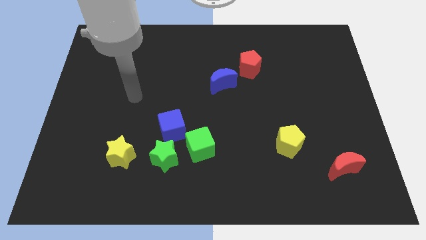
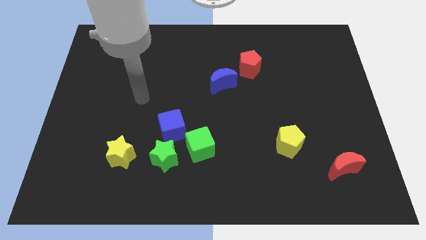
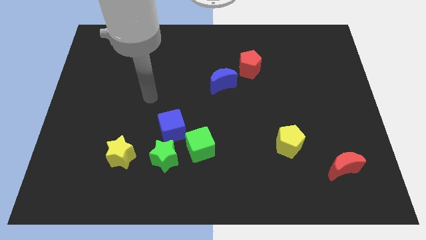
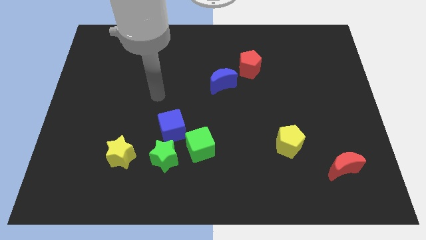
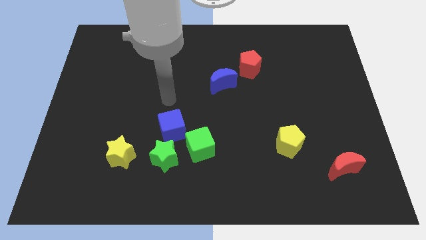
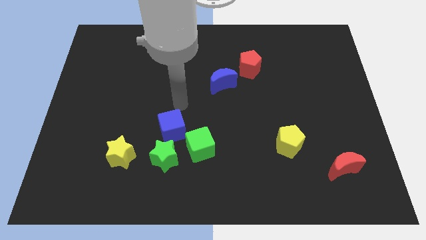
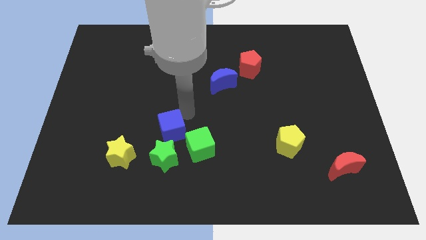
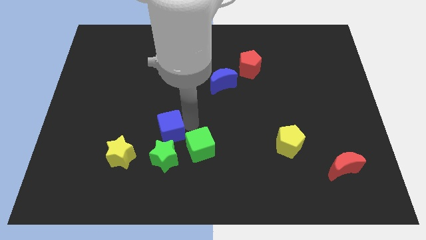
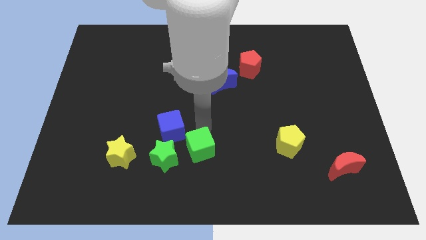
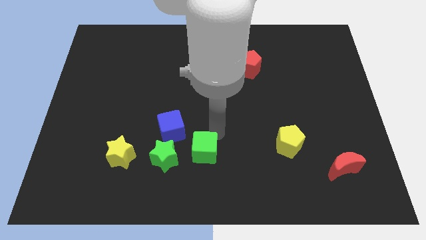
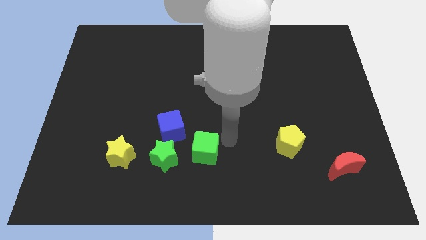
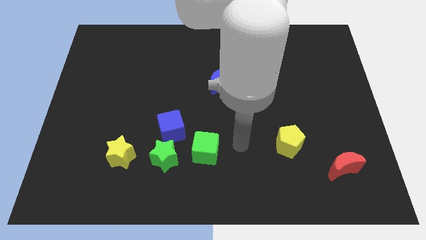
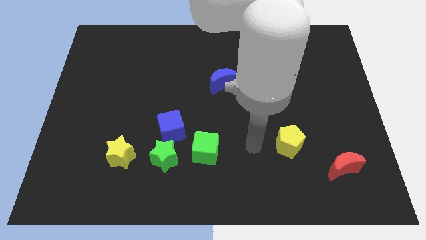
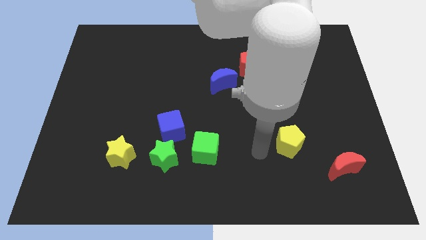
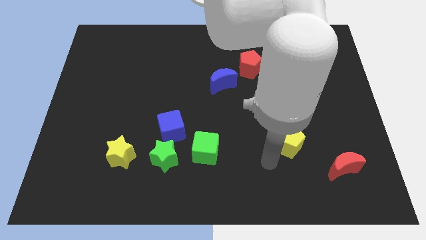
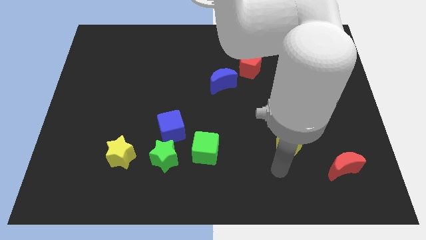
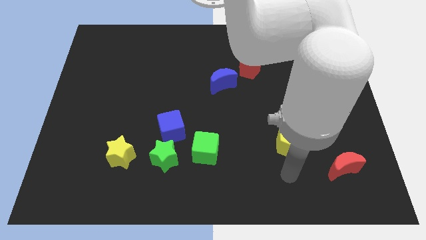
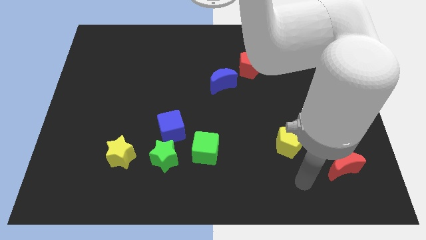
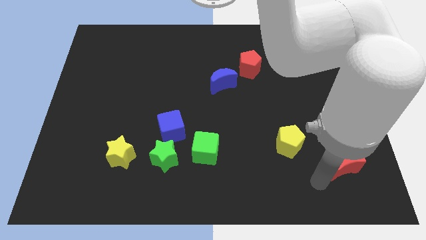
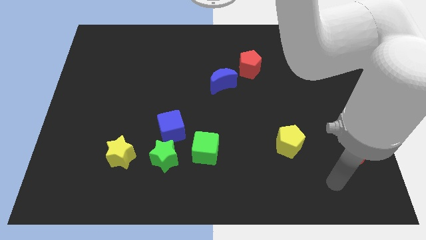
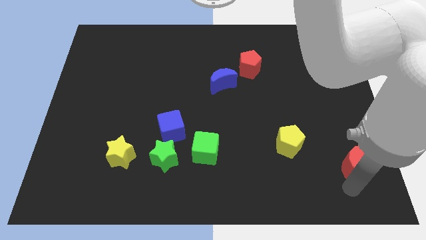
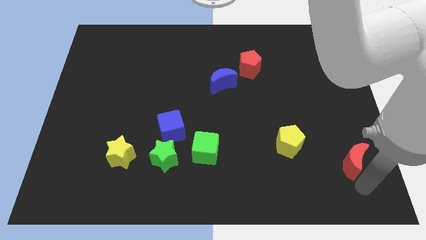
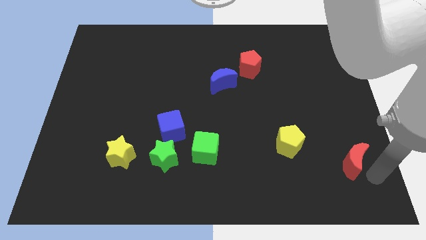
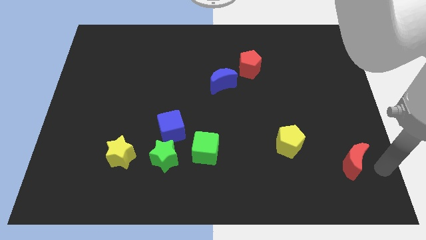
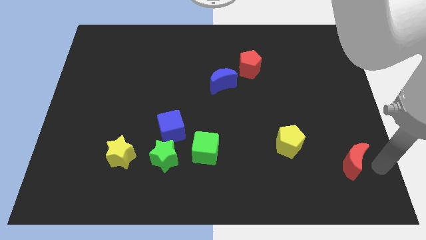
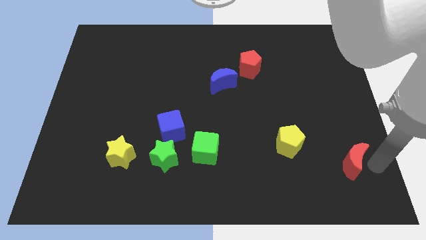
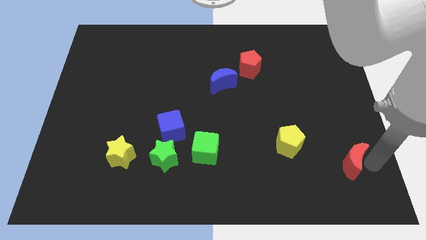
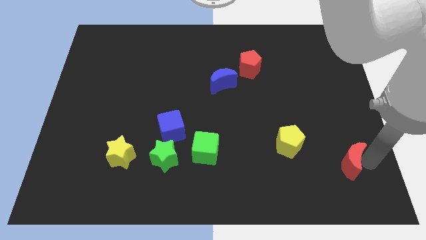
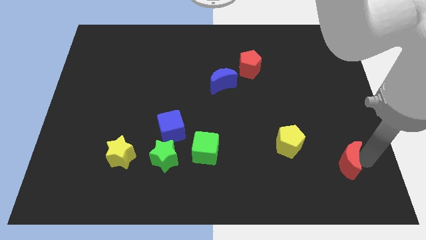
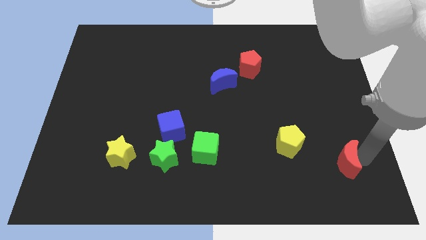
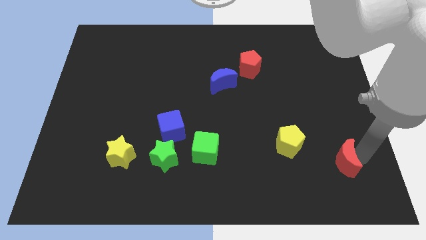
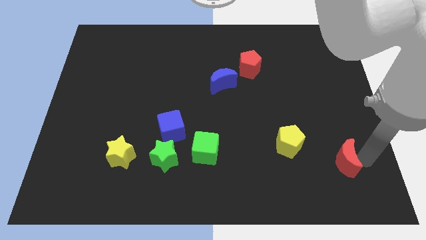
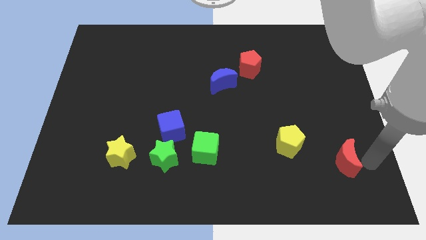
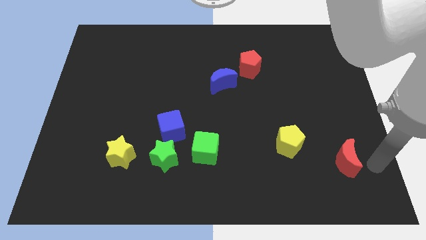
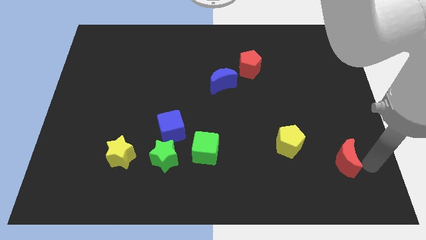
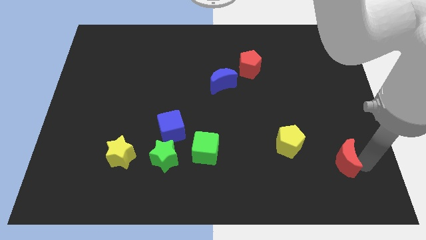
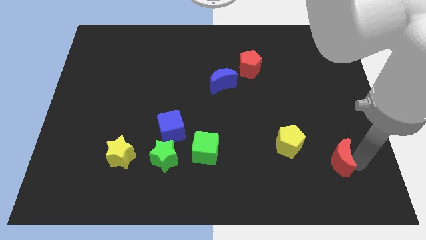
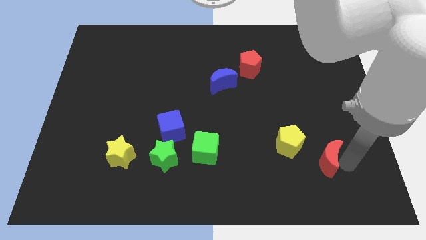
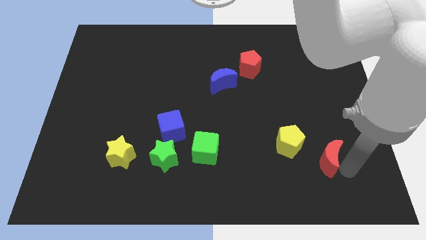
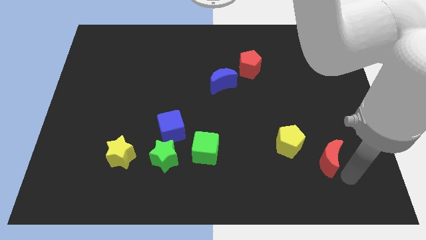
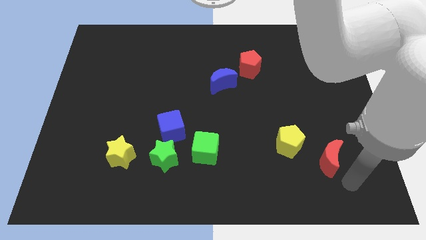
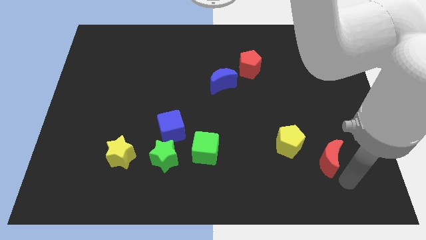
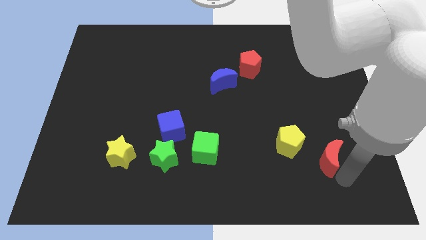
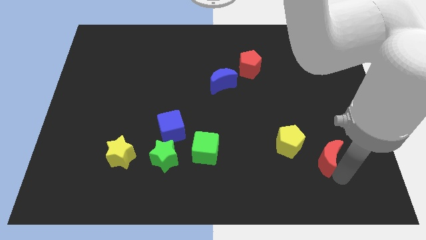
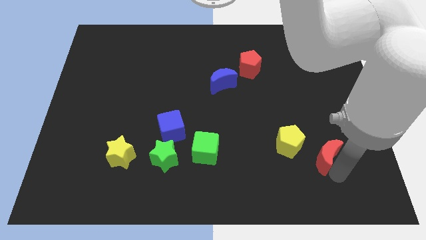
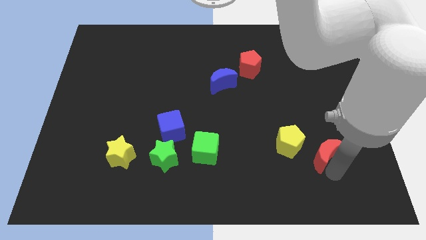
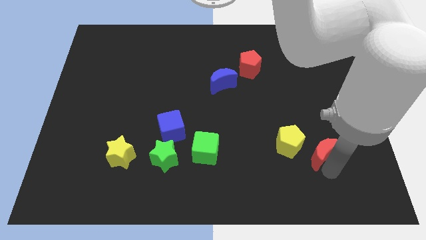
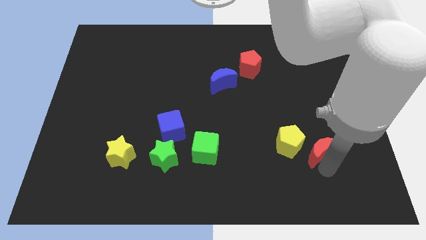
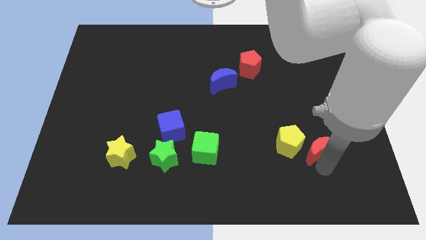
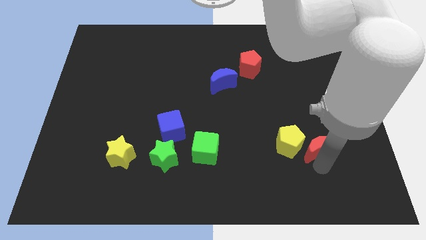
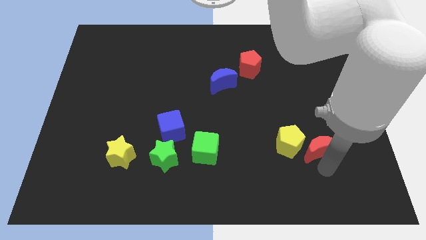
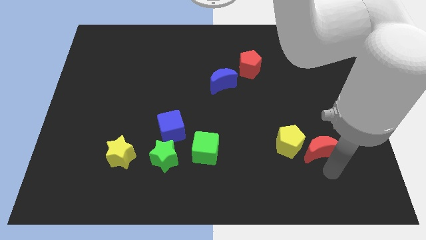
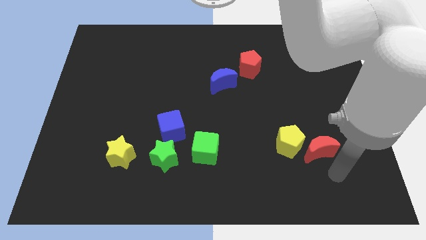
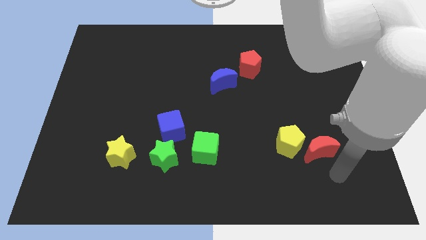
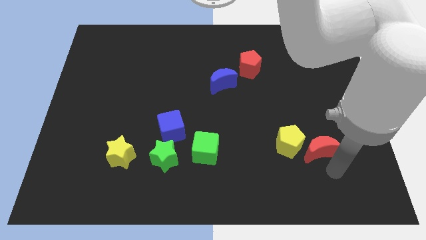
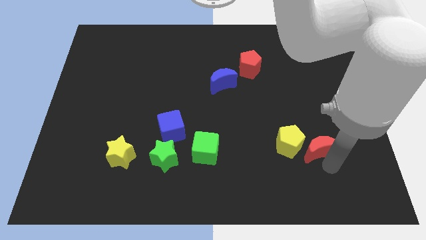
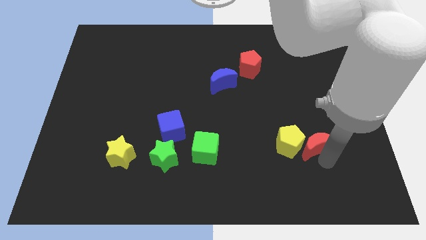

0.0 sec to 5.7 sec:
push the red moon a bit up and then left

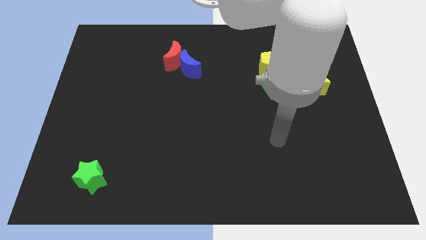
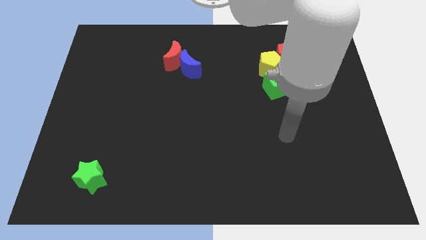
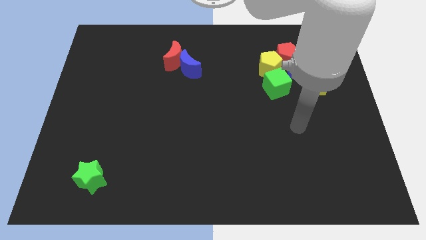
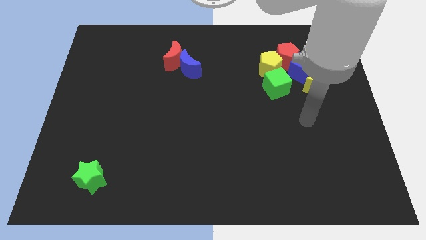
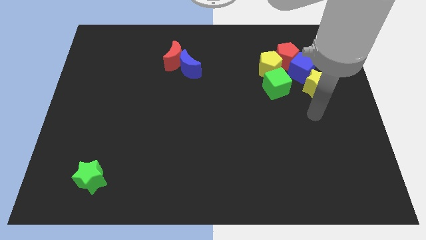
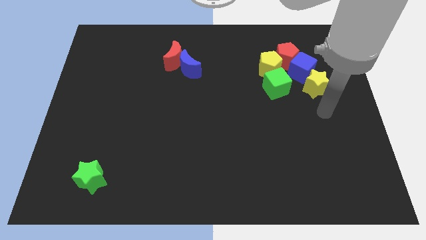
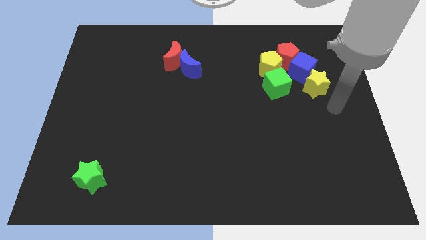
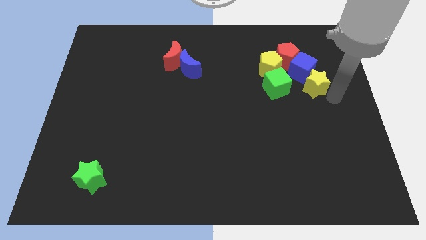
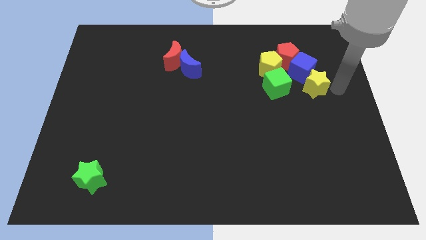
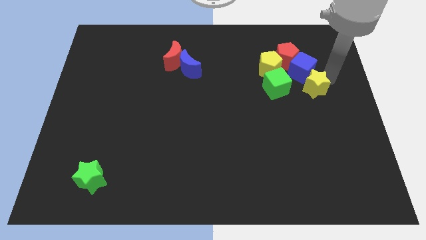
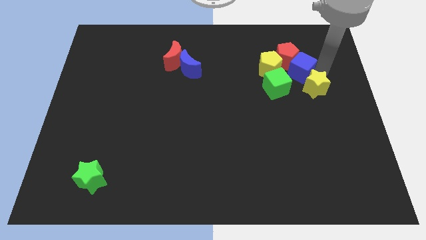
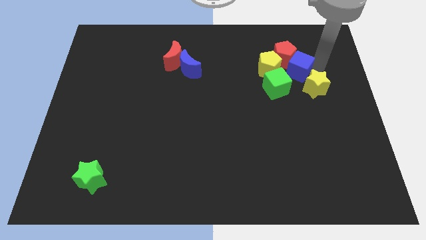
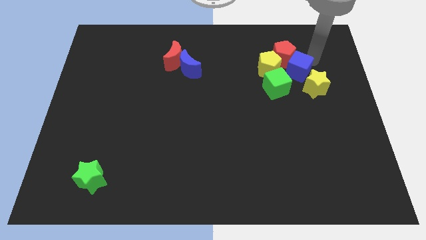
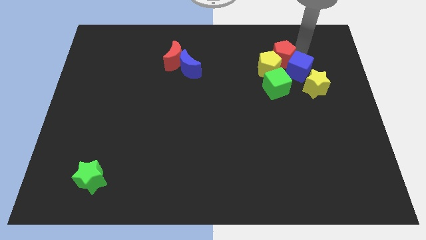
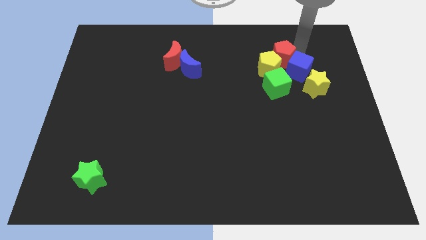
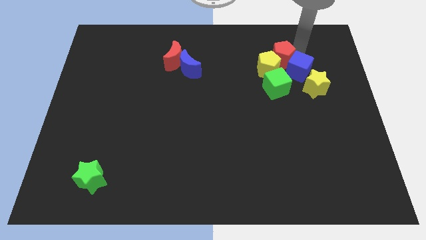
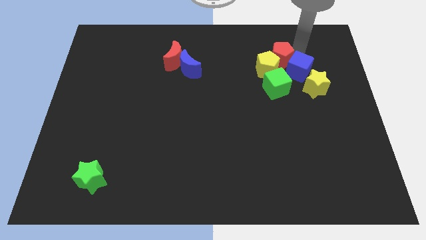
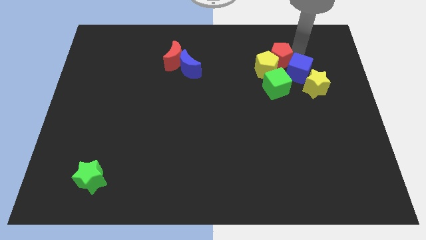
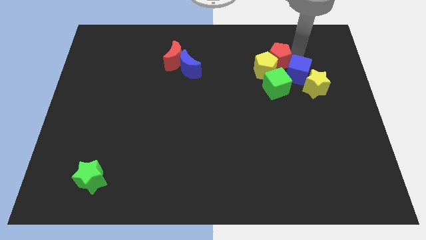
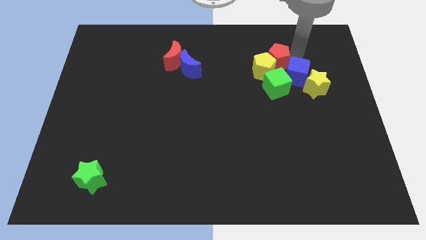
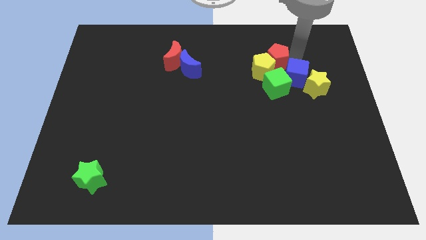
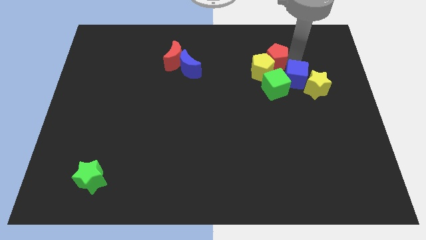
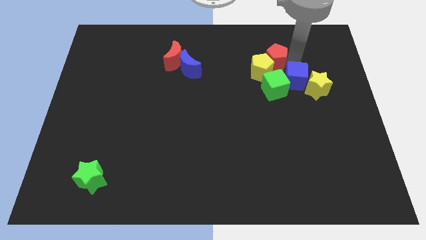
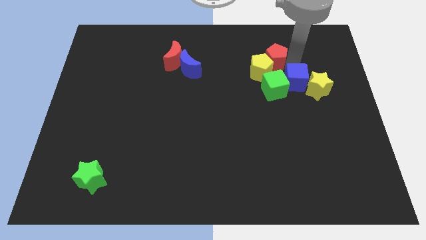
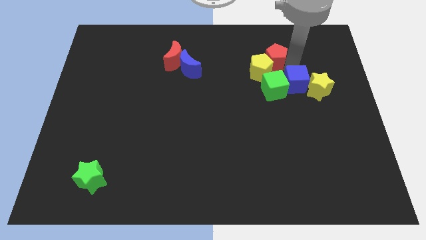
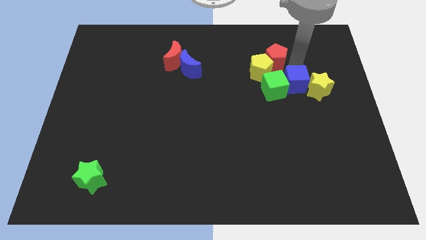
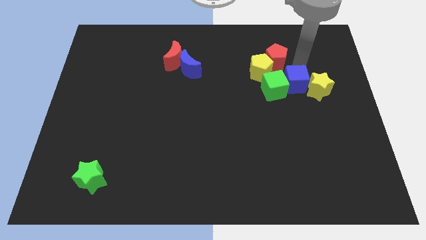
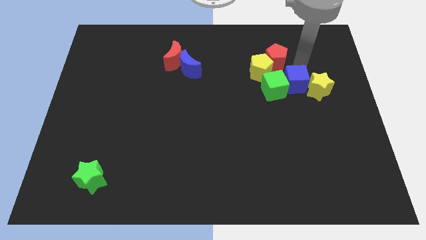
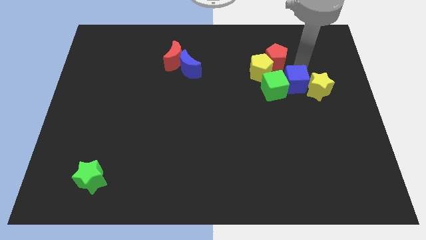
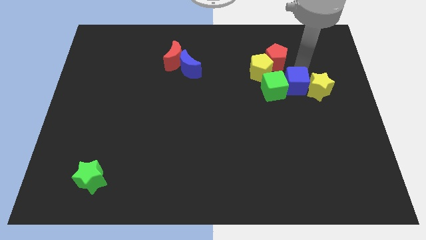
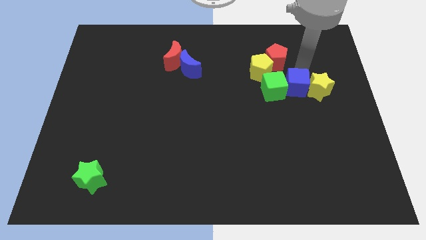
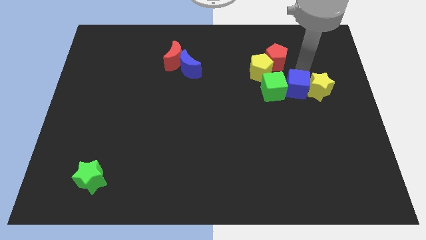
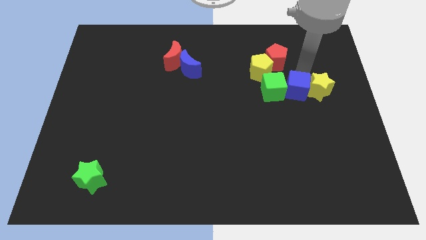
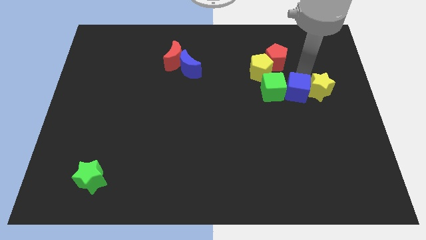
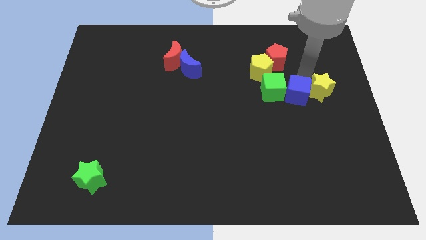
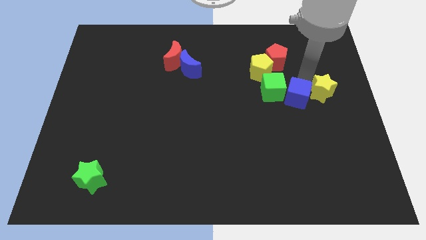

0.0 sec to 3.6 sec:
slide the blue cube a little bit downwards and left
